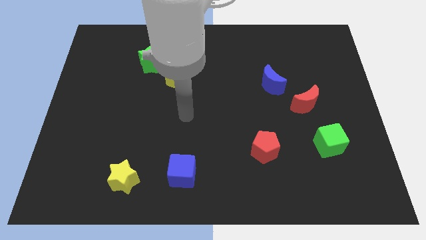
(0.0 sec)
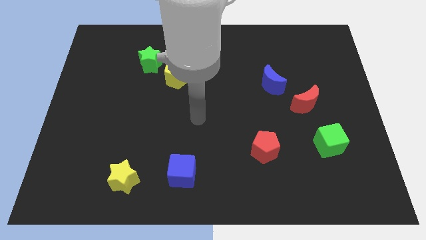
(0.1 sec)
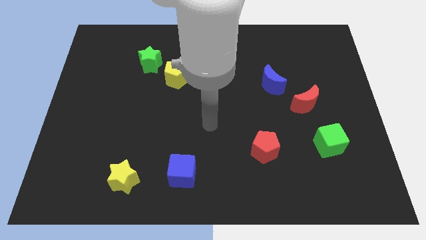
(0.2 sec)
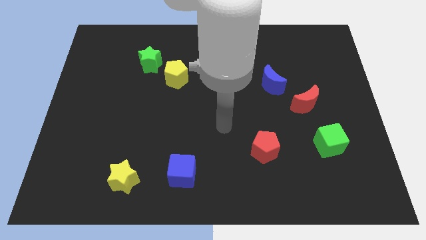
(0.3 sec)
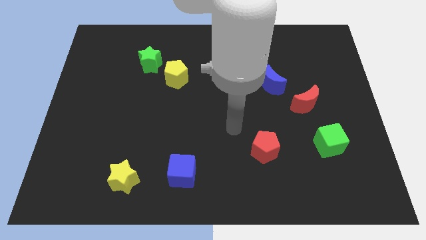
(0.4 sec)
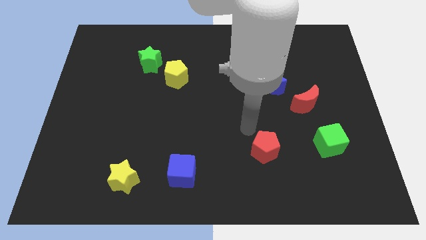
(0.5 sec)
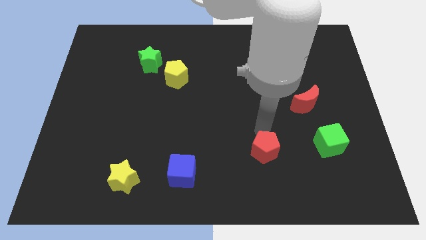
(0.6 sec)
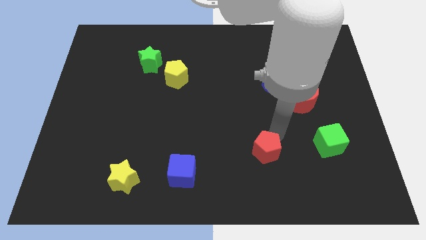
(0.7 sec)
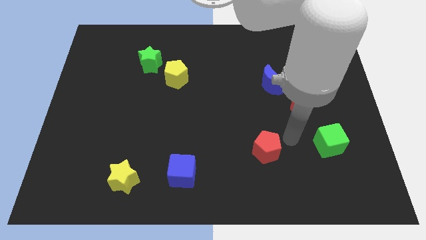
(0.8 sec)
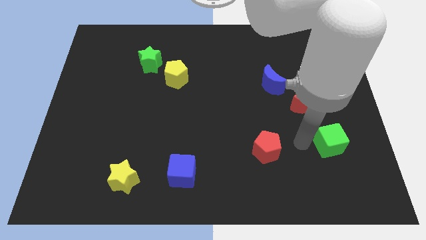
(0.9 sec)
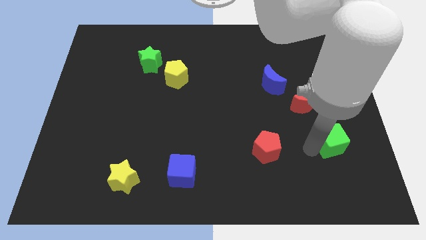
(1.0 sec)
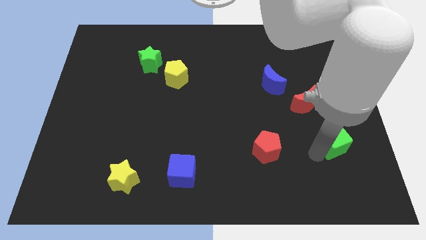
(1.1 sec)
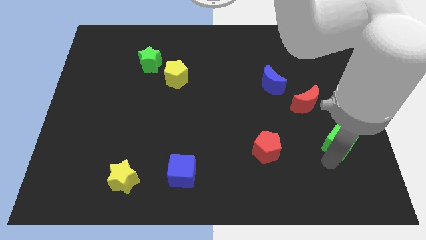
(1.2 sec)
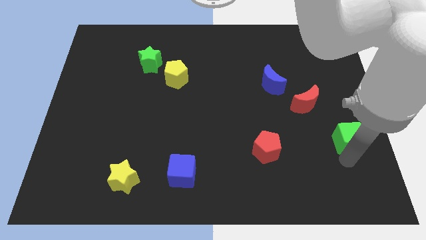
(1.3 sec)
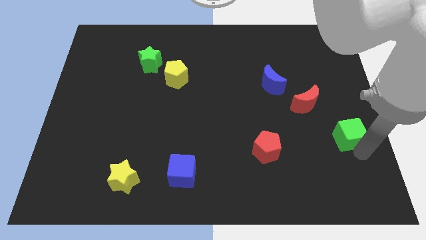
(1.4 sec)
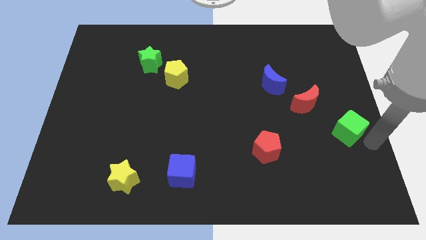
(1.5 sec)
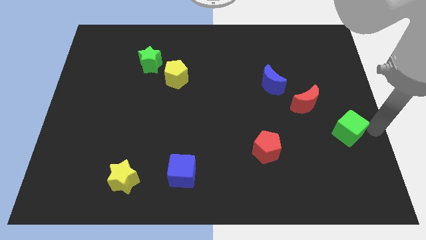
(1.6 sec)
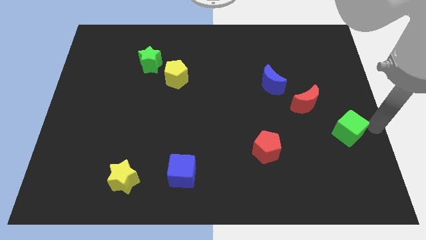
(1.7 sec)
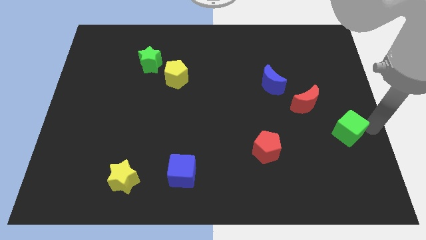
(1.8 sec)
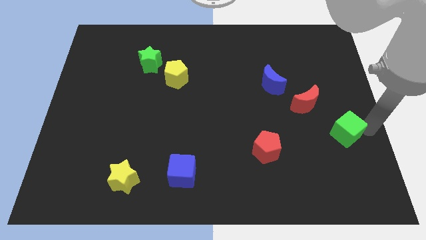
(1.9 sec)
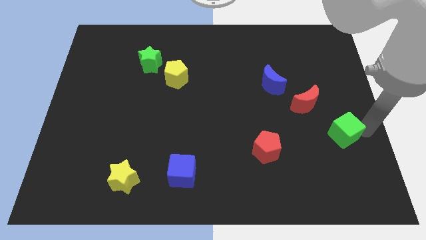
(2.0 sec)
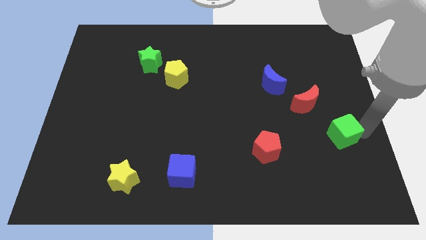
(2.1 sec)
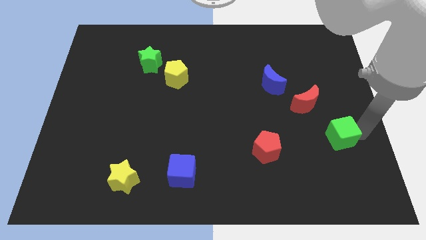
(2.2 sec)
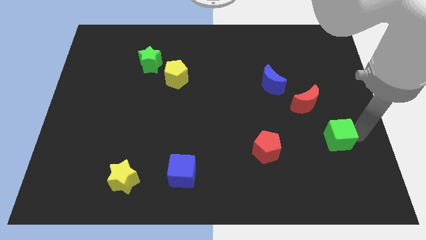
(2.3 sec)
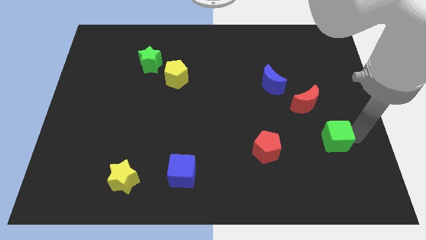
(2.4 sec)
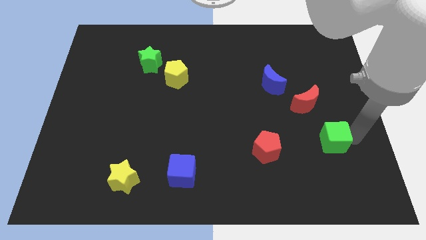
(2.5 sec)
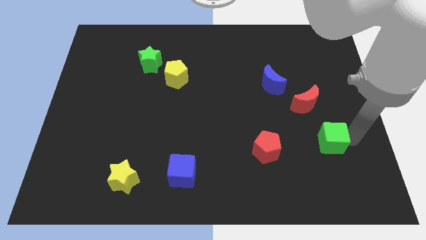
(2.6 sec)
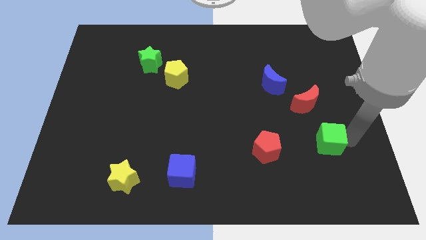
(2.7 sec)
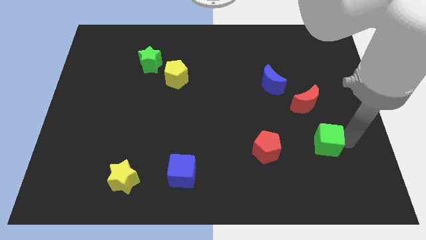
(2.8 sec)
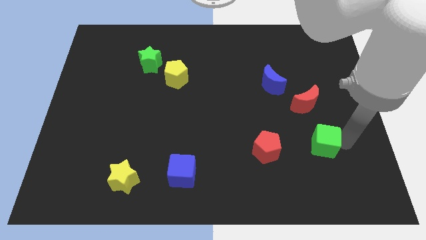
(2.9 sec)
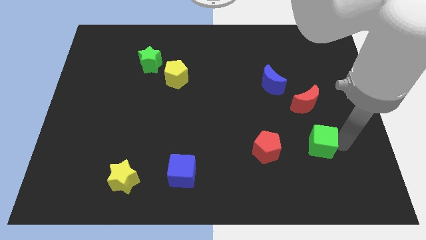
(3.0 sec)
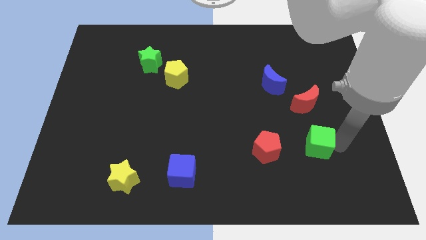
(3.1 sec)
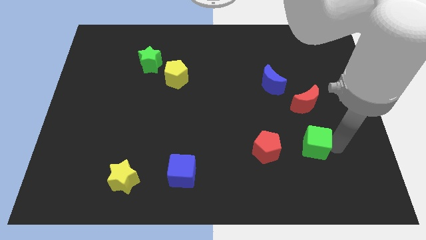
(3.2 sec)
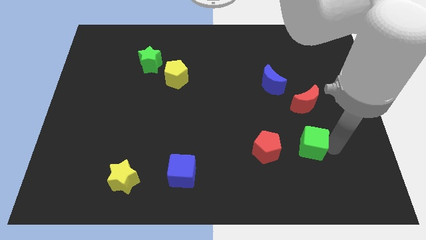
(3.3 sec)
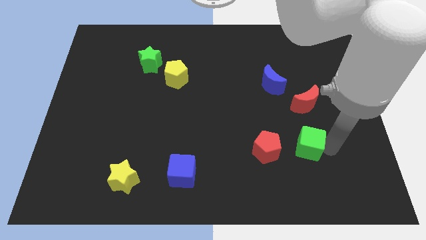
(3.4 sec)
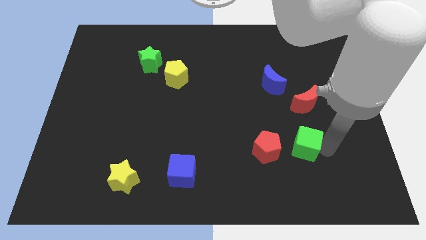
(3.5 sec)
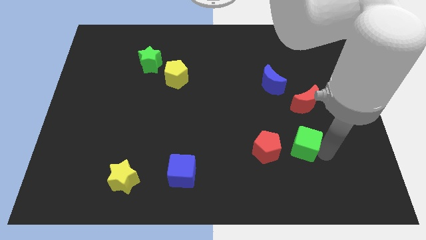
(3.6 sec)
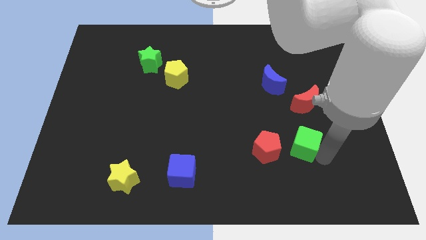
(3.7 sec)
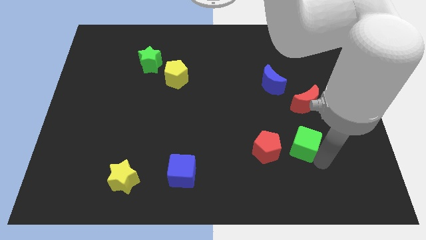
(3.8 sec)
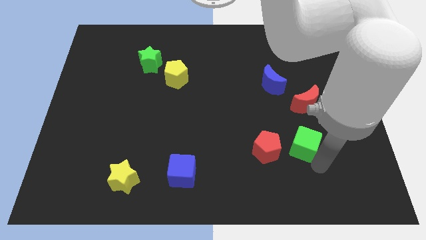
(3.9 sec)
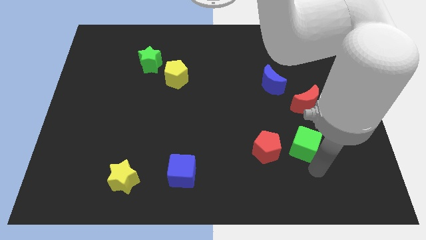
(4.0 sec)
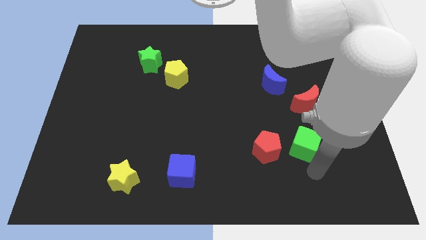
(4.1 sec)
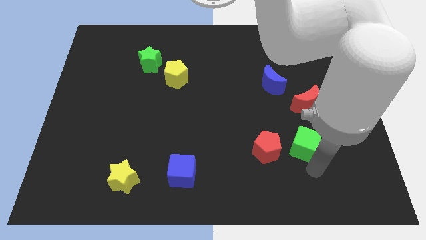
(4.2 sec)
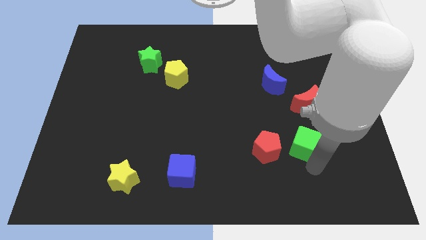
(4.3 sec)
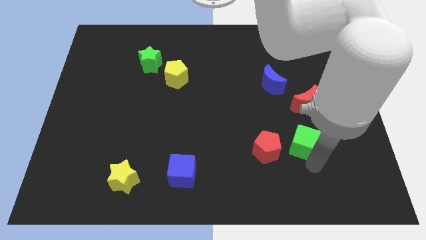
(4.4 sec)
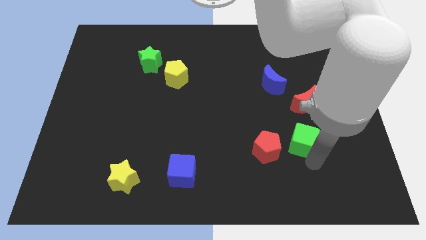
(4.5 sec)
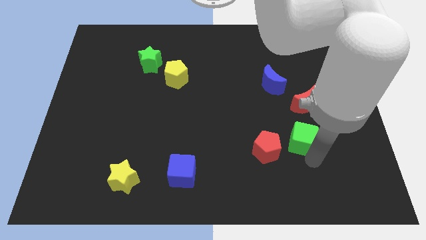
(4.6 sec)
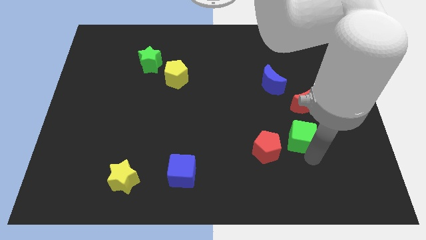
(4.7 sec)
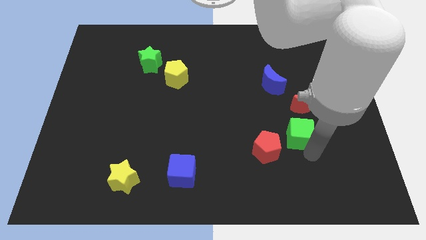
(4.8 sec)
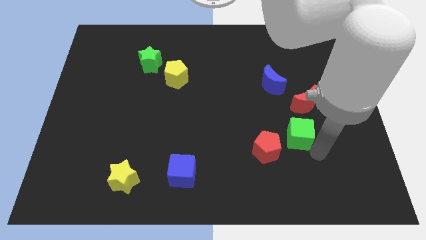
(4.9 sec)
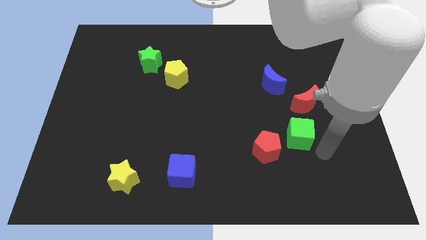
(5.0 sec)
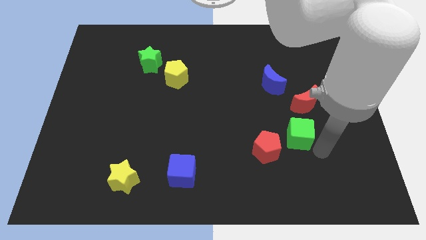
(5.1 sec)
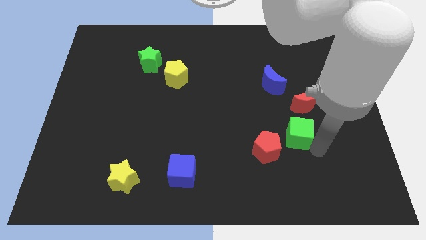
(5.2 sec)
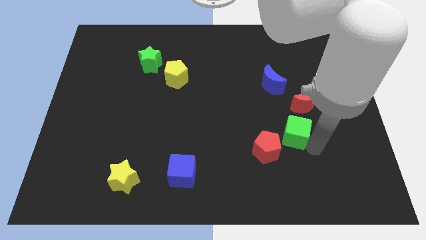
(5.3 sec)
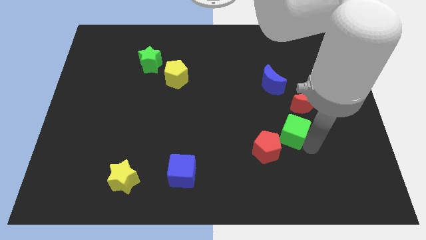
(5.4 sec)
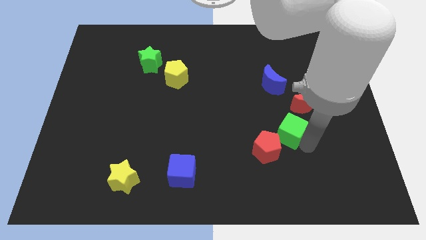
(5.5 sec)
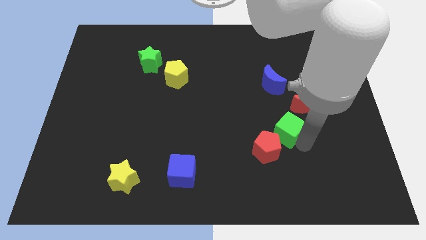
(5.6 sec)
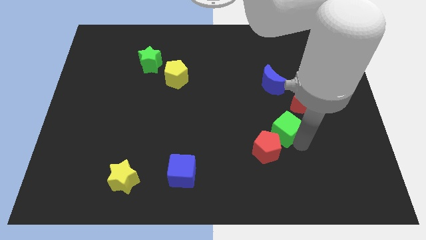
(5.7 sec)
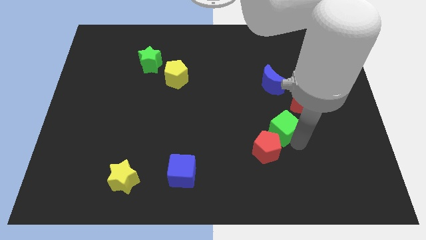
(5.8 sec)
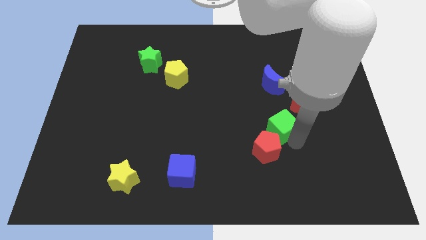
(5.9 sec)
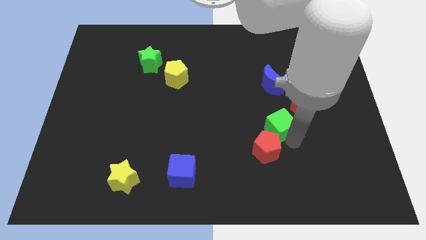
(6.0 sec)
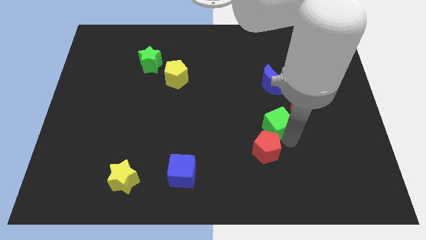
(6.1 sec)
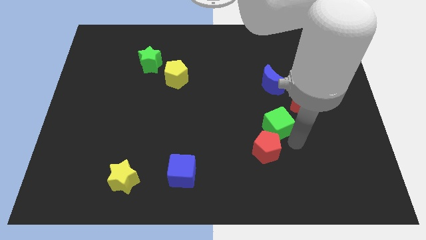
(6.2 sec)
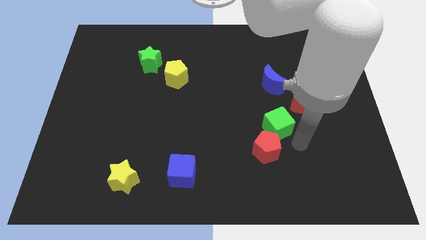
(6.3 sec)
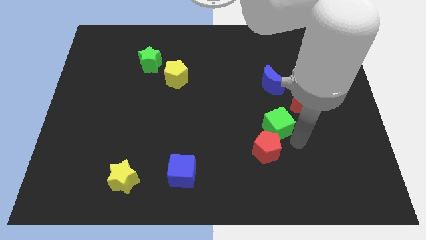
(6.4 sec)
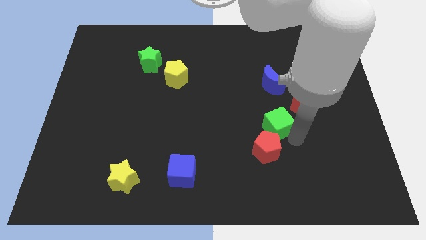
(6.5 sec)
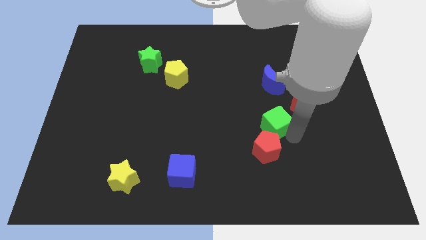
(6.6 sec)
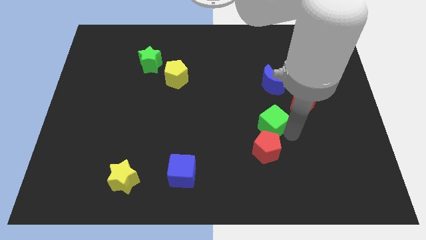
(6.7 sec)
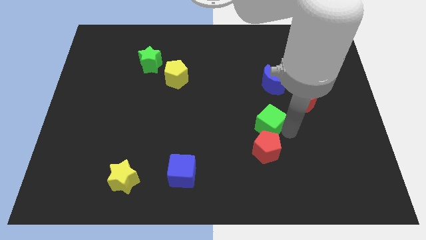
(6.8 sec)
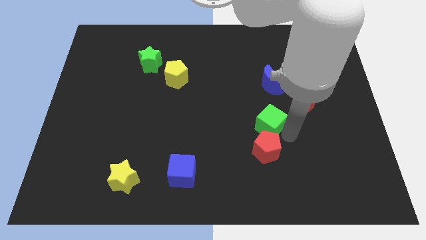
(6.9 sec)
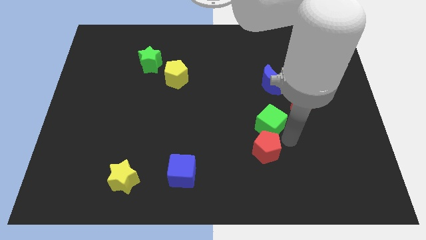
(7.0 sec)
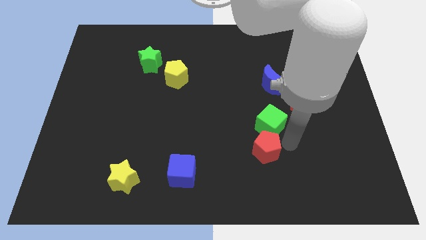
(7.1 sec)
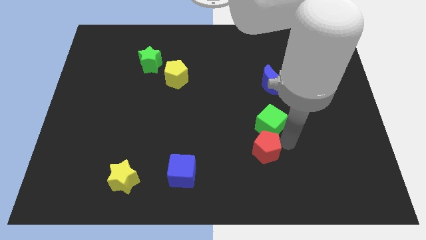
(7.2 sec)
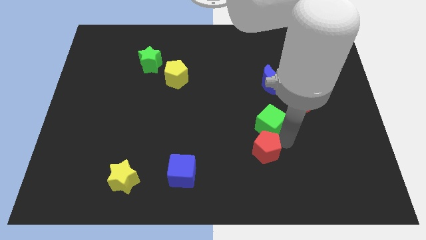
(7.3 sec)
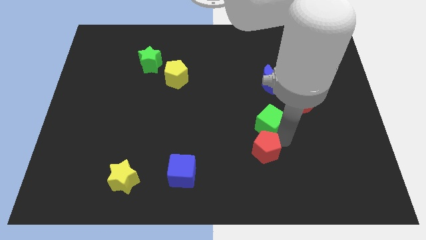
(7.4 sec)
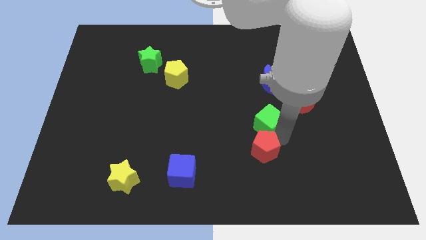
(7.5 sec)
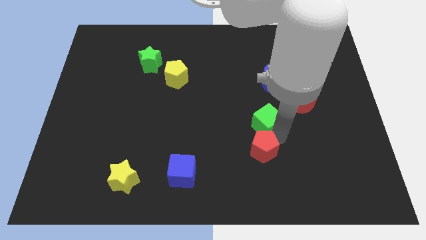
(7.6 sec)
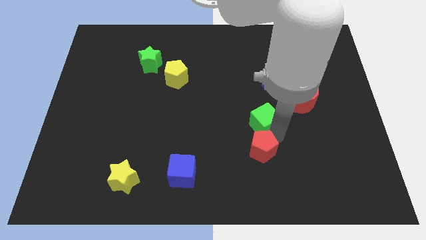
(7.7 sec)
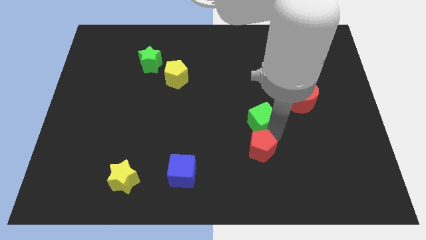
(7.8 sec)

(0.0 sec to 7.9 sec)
put the green cube to the center of the board
